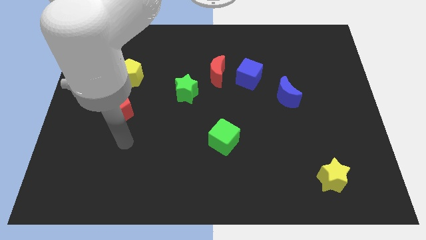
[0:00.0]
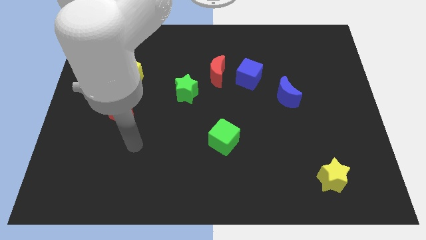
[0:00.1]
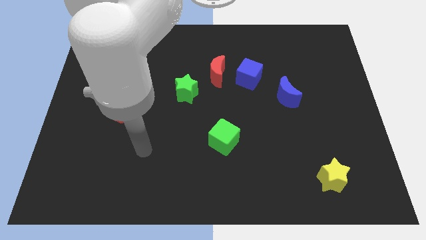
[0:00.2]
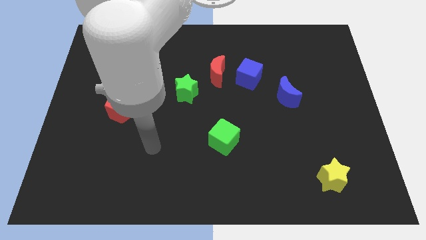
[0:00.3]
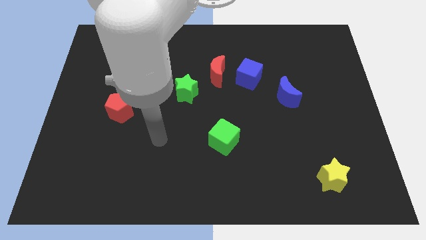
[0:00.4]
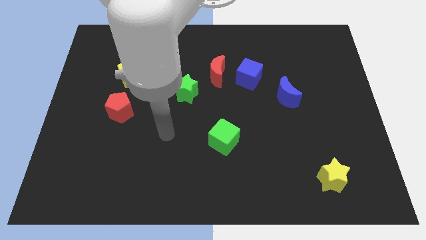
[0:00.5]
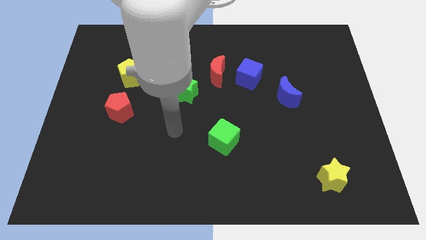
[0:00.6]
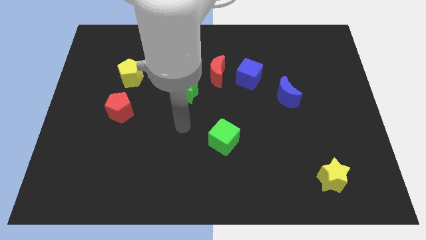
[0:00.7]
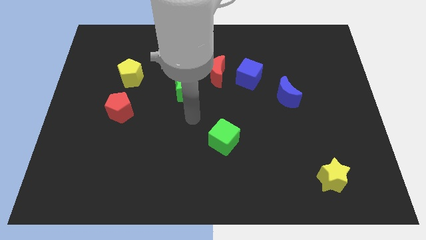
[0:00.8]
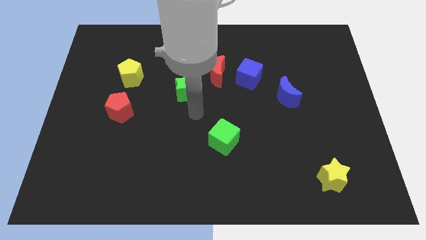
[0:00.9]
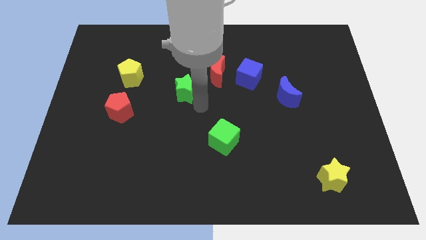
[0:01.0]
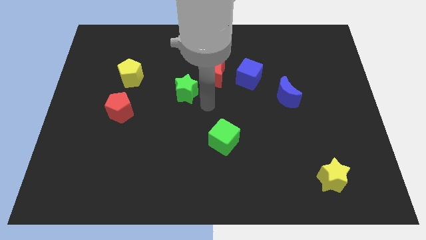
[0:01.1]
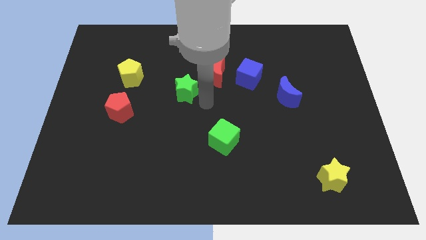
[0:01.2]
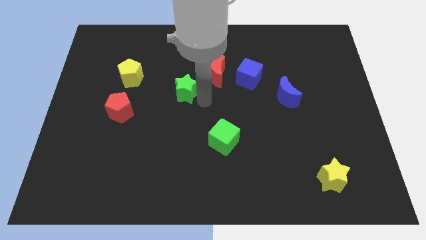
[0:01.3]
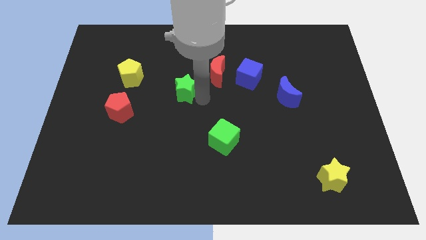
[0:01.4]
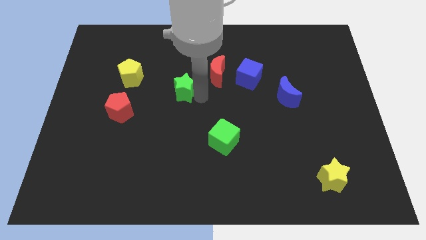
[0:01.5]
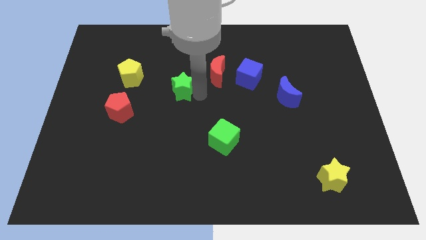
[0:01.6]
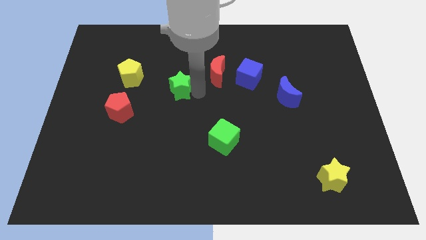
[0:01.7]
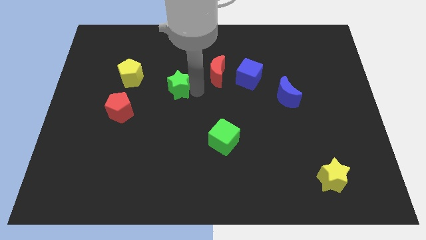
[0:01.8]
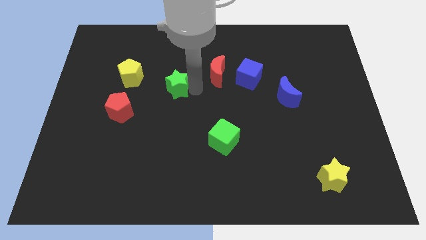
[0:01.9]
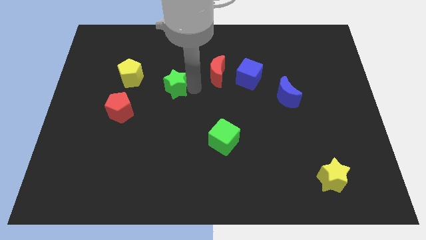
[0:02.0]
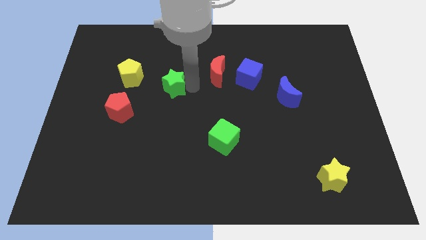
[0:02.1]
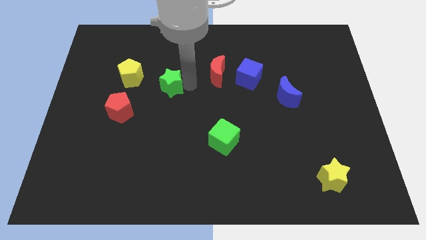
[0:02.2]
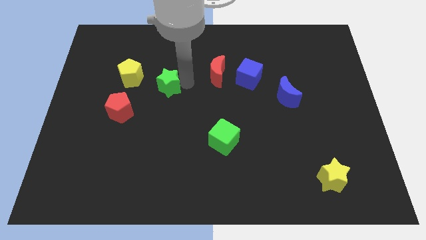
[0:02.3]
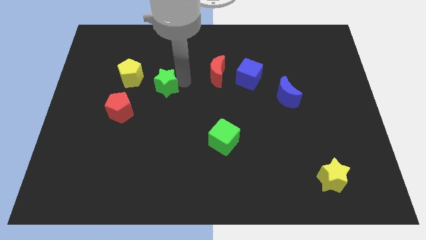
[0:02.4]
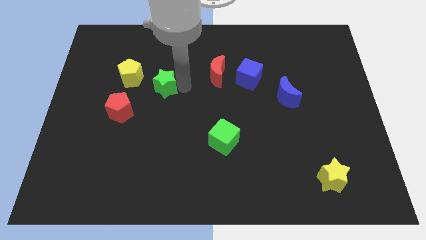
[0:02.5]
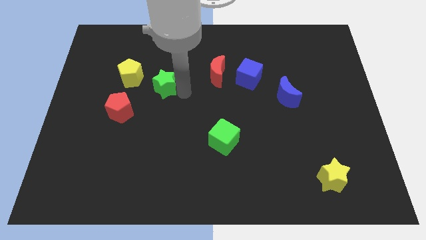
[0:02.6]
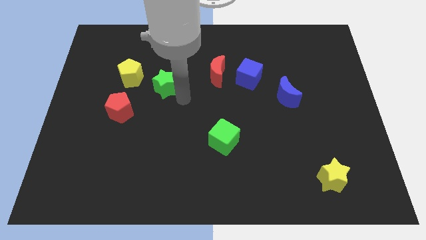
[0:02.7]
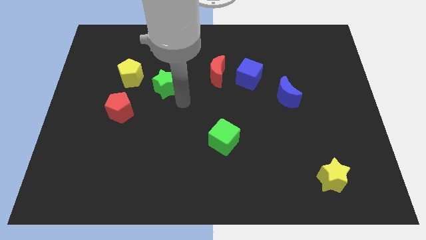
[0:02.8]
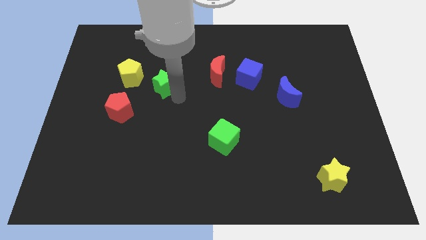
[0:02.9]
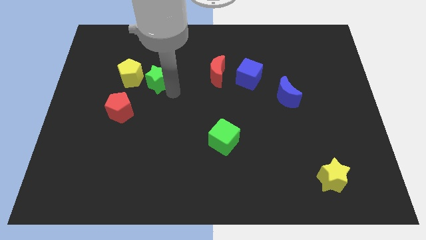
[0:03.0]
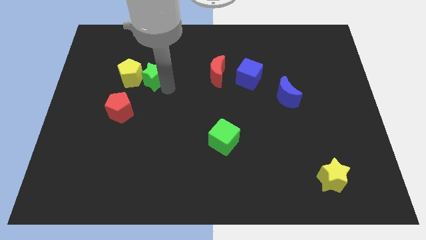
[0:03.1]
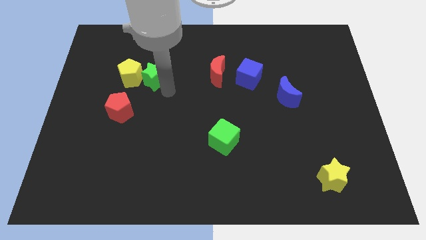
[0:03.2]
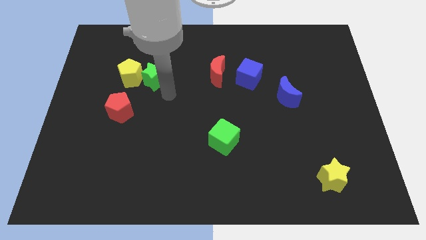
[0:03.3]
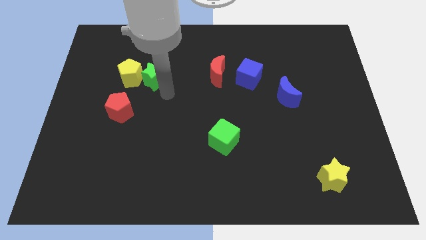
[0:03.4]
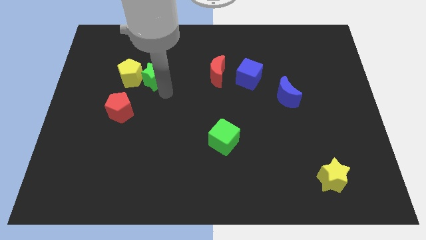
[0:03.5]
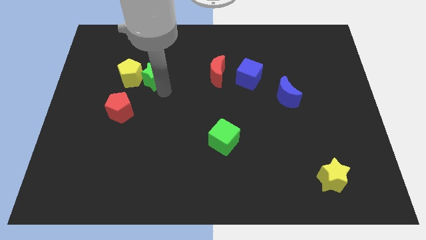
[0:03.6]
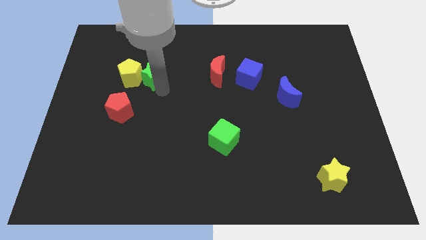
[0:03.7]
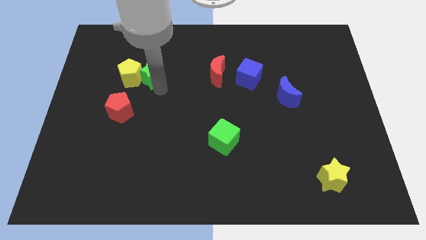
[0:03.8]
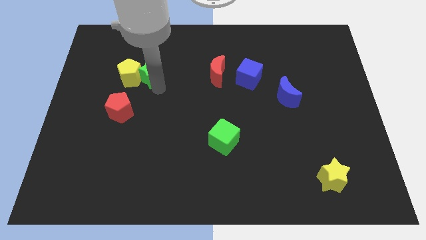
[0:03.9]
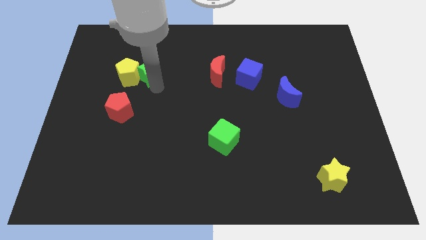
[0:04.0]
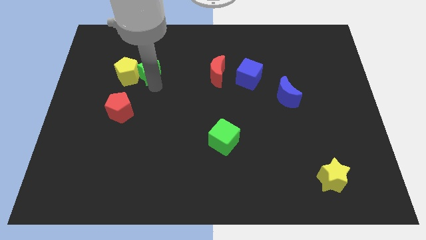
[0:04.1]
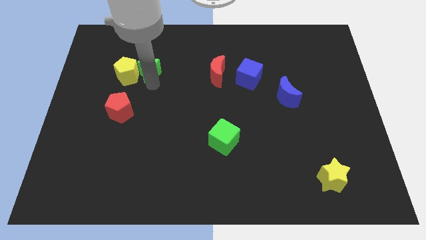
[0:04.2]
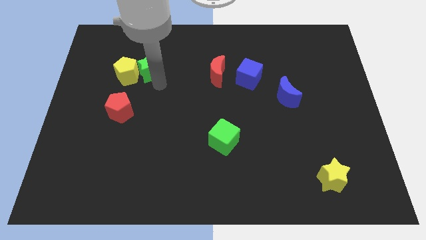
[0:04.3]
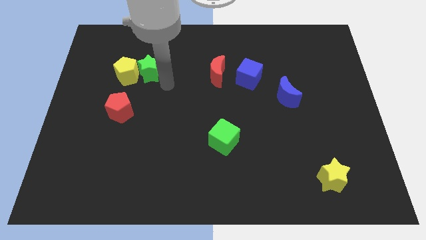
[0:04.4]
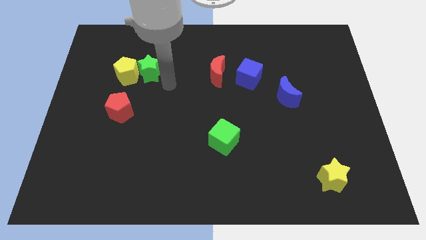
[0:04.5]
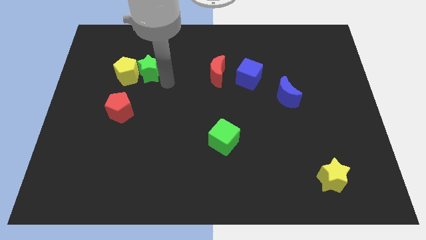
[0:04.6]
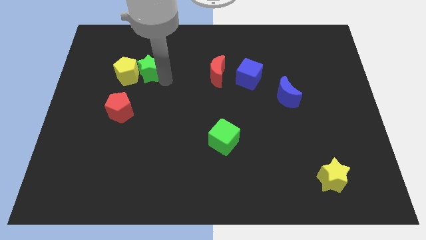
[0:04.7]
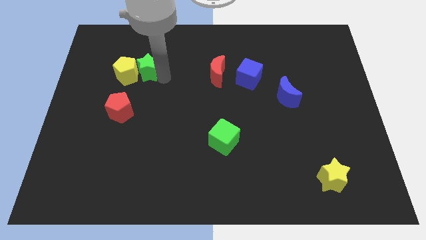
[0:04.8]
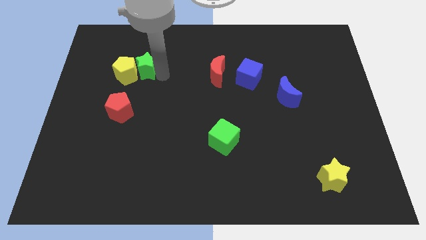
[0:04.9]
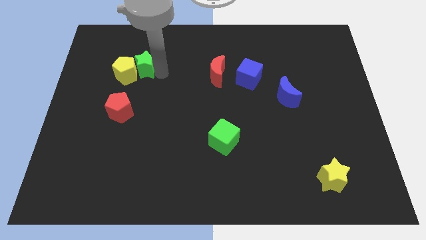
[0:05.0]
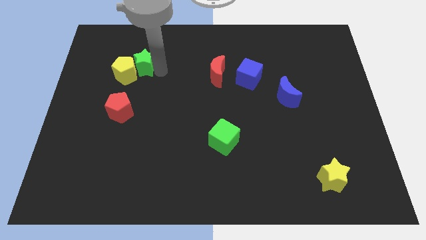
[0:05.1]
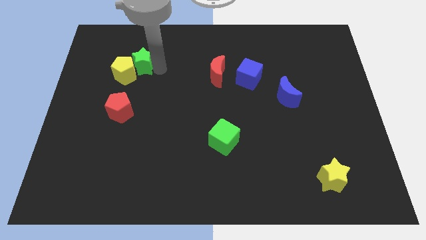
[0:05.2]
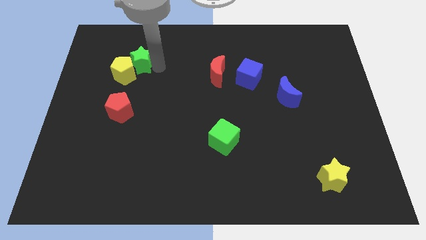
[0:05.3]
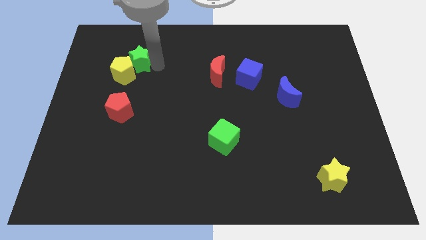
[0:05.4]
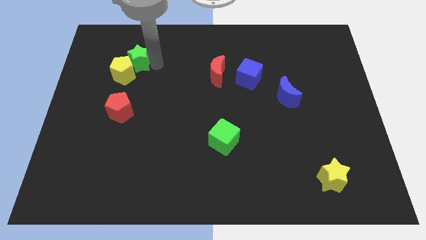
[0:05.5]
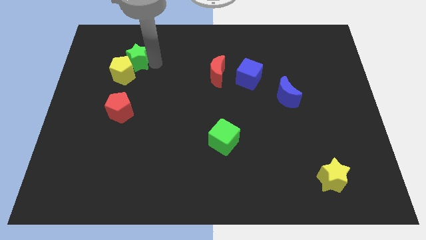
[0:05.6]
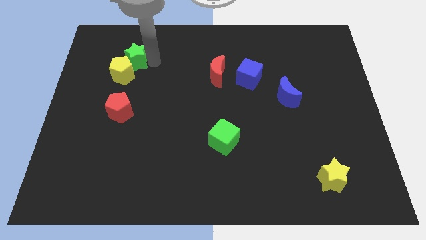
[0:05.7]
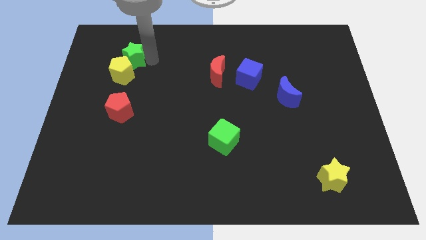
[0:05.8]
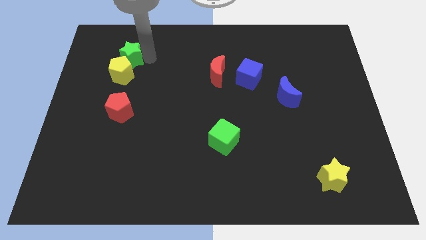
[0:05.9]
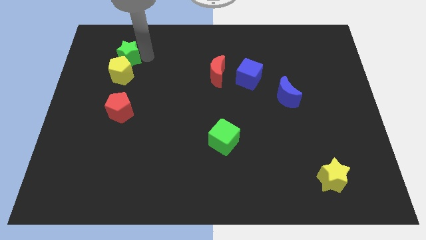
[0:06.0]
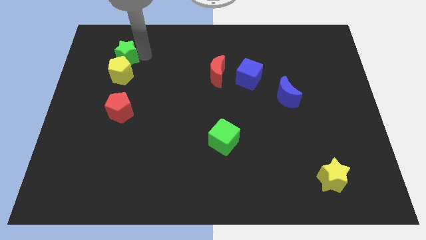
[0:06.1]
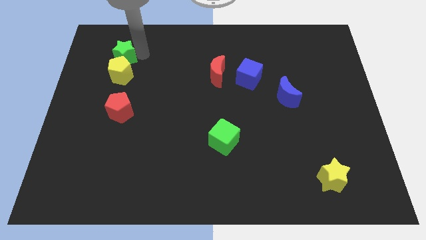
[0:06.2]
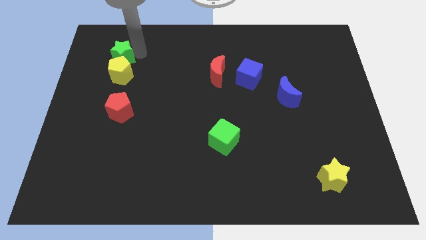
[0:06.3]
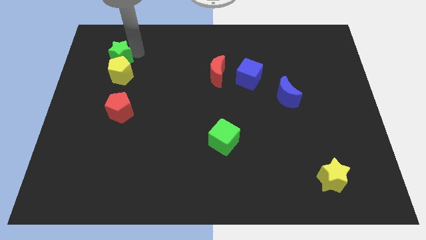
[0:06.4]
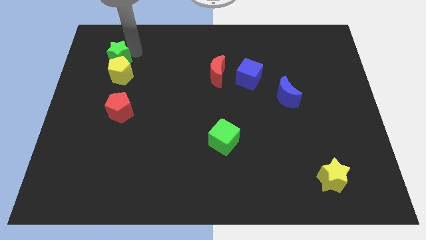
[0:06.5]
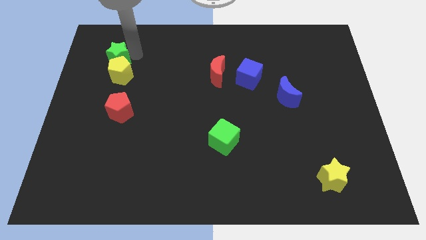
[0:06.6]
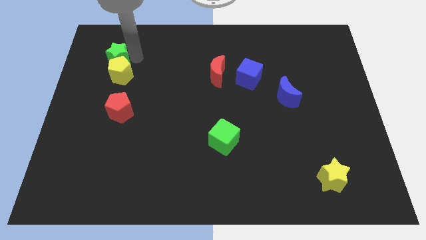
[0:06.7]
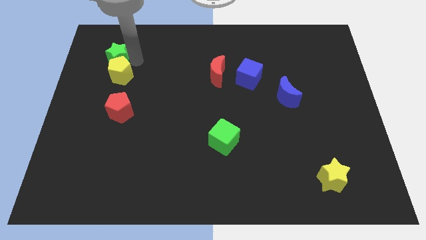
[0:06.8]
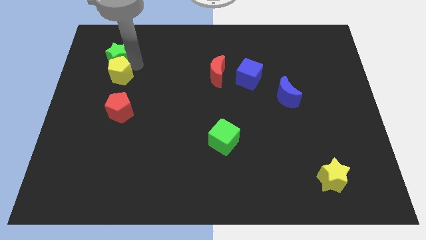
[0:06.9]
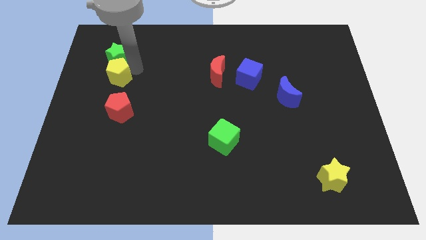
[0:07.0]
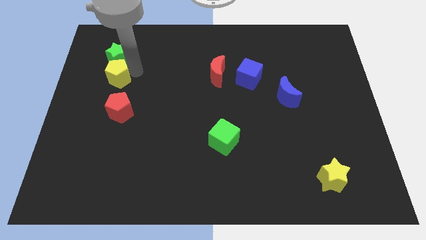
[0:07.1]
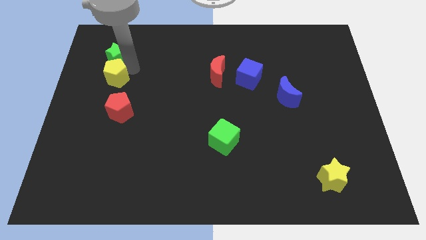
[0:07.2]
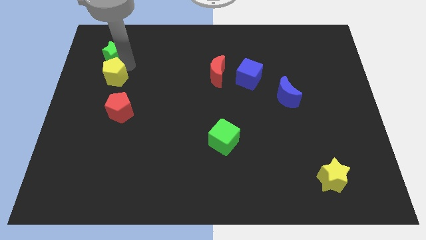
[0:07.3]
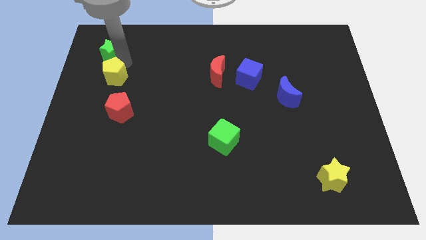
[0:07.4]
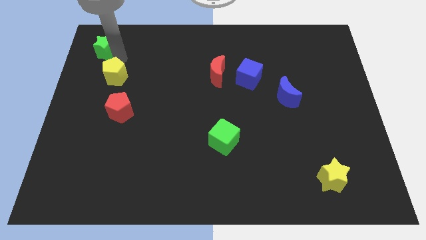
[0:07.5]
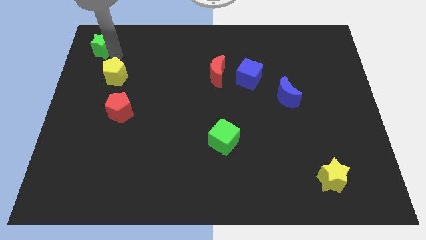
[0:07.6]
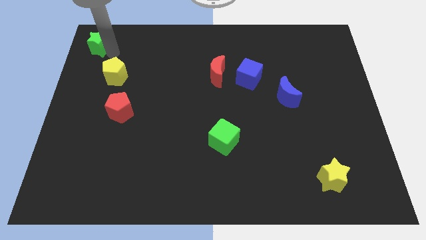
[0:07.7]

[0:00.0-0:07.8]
slide the green star to the top left corner
